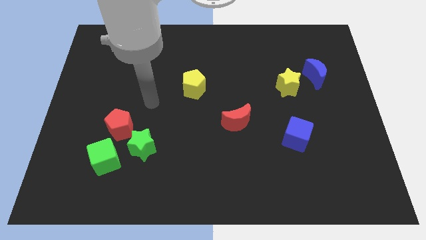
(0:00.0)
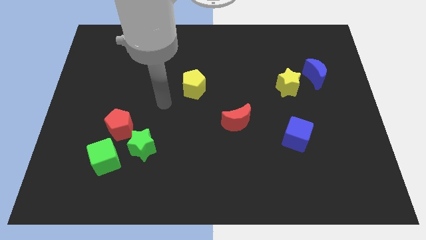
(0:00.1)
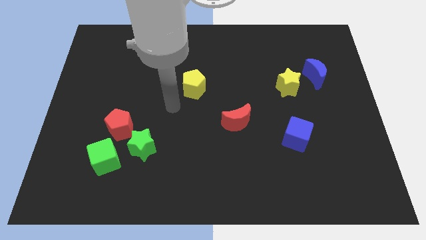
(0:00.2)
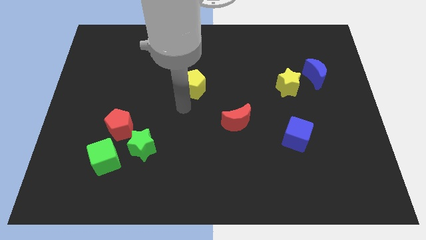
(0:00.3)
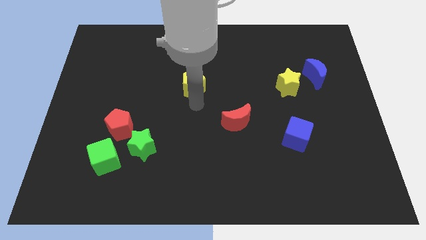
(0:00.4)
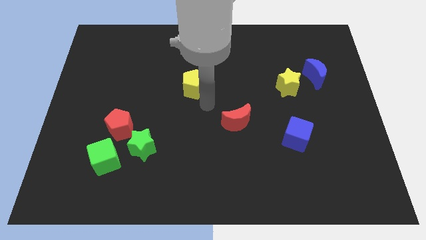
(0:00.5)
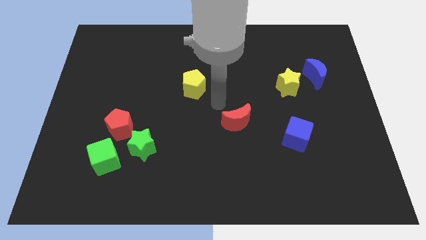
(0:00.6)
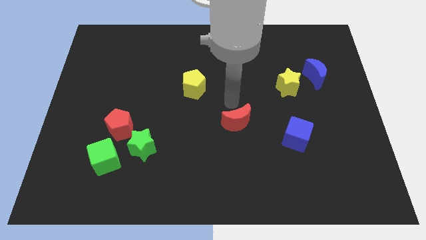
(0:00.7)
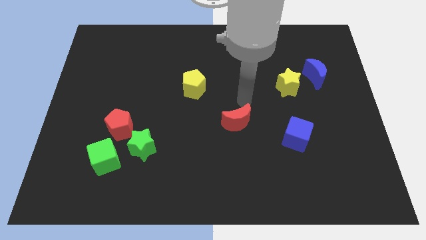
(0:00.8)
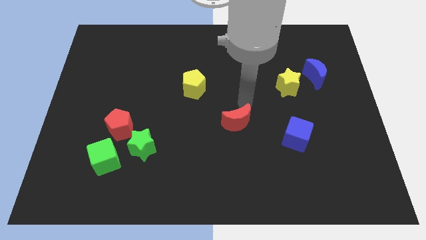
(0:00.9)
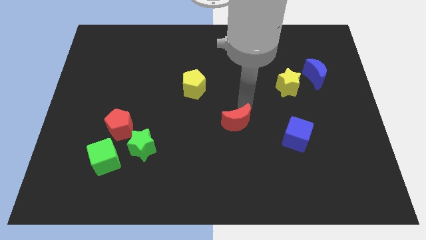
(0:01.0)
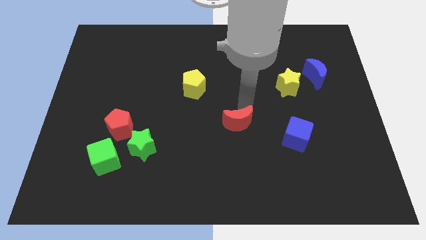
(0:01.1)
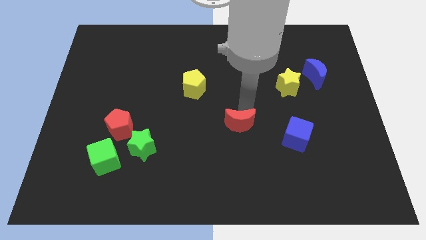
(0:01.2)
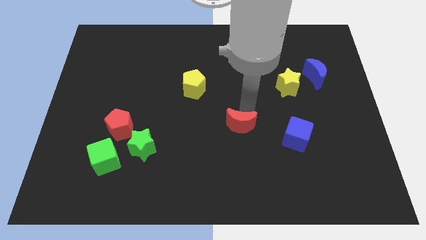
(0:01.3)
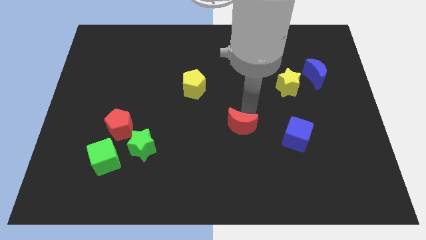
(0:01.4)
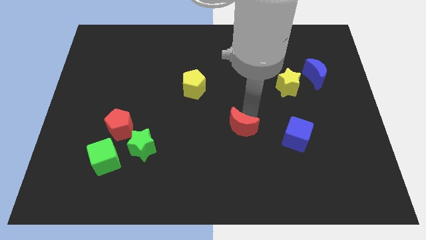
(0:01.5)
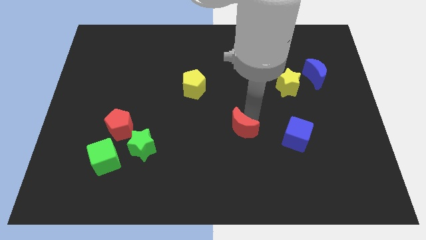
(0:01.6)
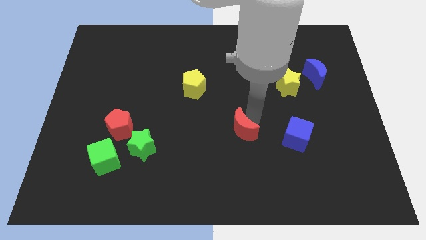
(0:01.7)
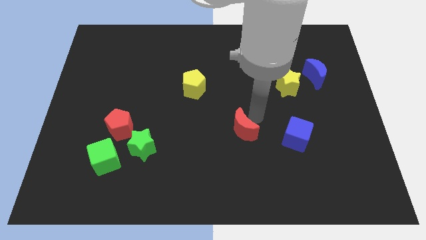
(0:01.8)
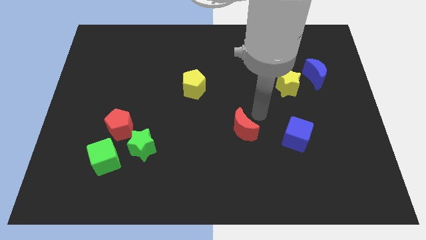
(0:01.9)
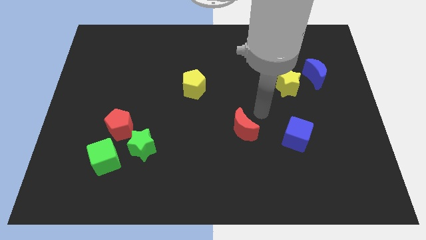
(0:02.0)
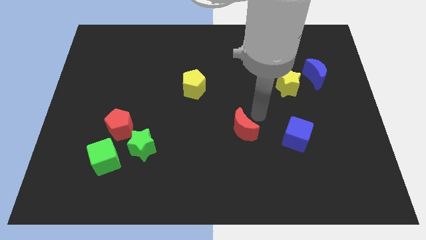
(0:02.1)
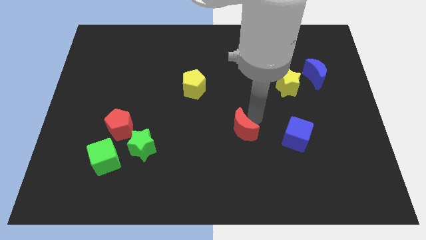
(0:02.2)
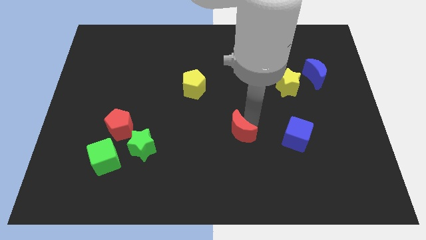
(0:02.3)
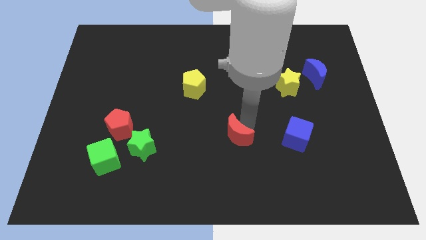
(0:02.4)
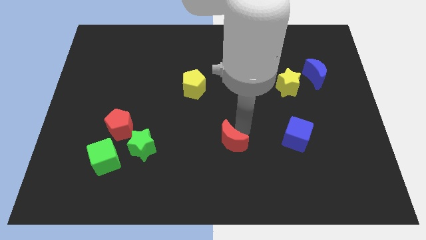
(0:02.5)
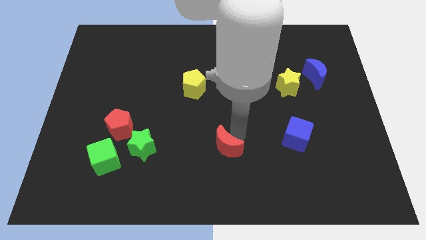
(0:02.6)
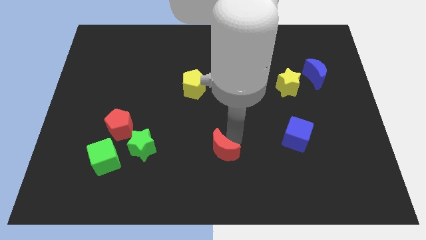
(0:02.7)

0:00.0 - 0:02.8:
move the red moon down and then to the left slightly

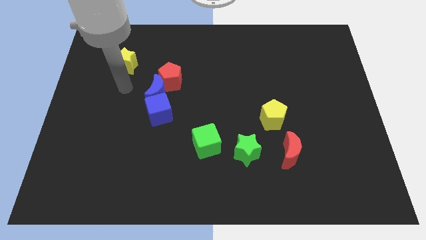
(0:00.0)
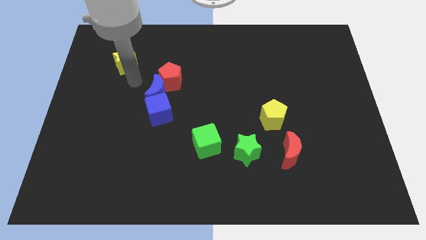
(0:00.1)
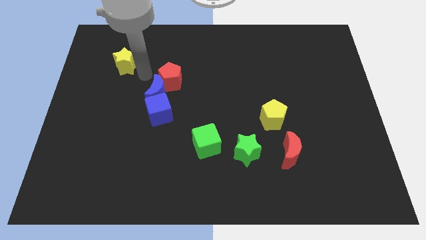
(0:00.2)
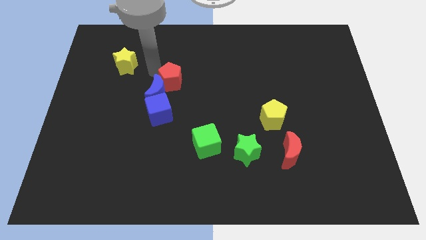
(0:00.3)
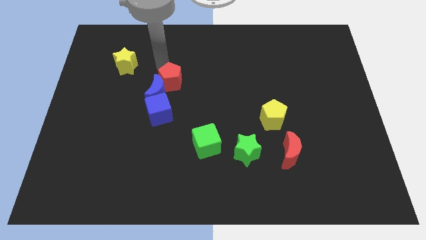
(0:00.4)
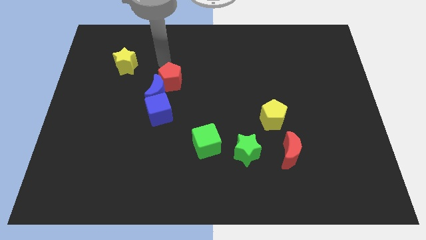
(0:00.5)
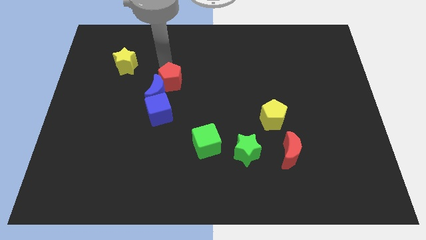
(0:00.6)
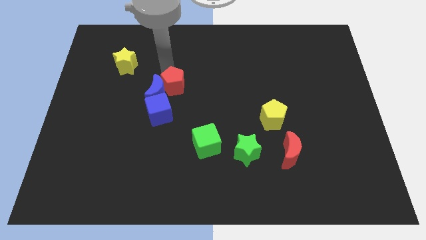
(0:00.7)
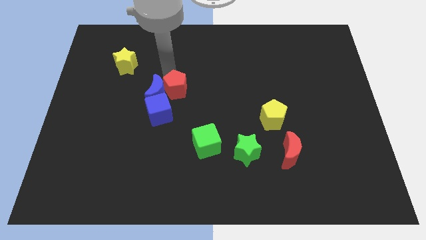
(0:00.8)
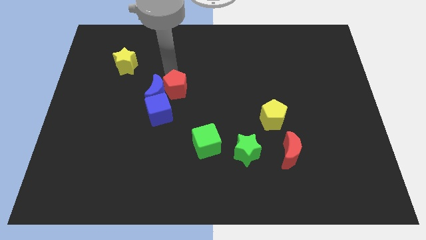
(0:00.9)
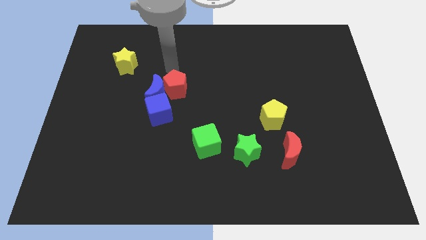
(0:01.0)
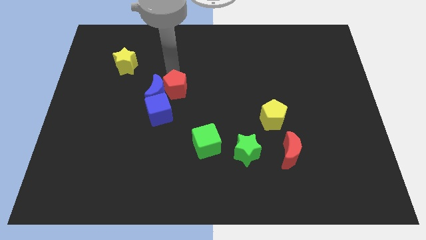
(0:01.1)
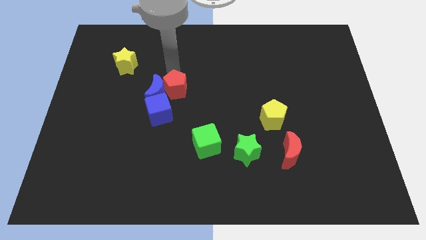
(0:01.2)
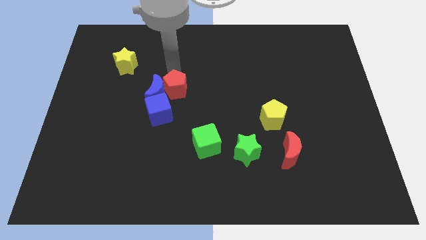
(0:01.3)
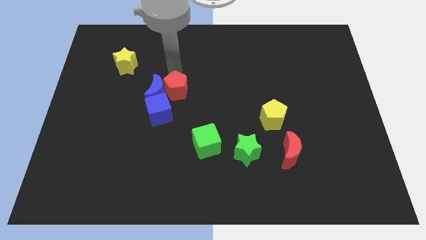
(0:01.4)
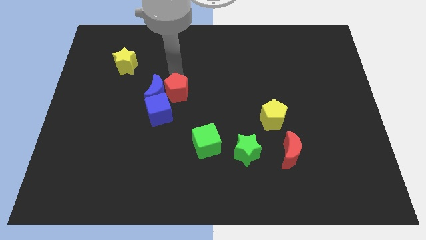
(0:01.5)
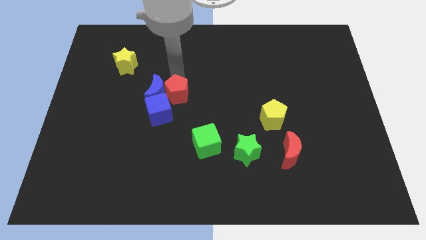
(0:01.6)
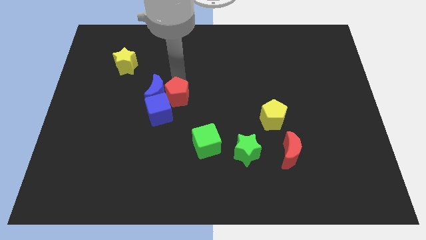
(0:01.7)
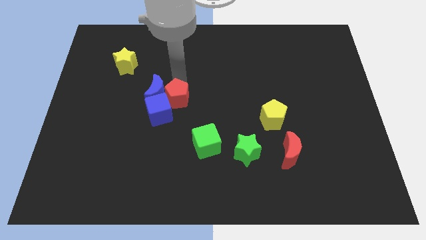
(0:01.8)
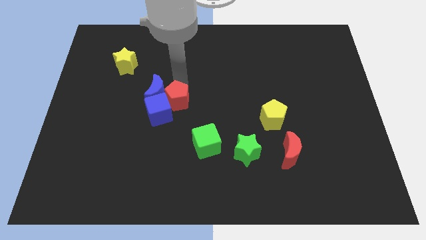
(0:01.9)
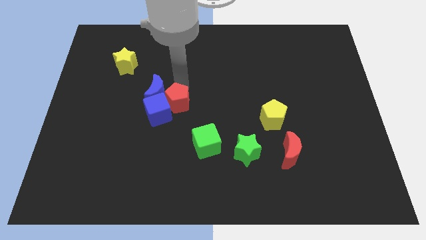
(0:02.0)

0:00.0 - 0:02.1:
slightly move the red pentagon down

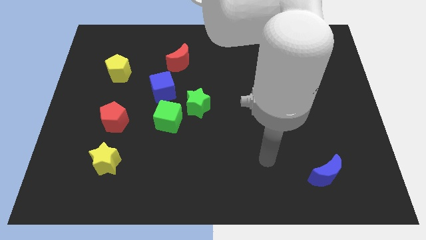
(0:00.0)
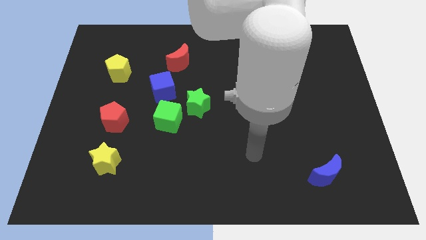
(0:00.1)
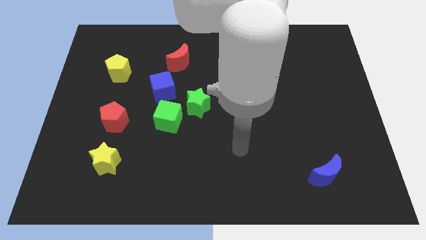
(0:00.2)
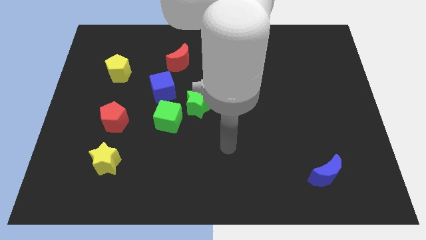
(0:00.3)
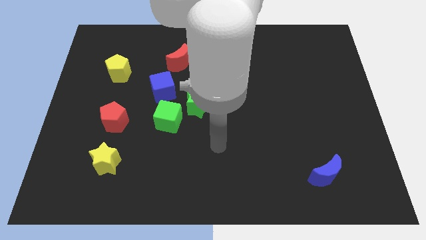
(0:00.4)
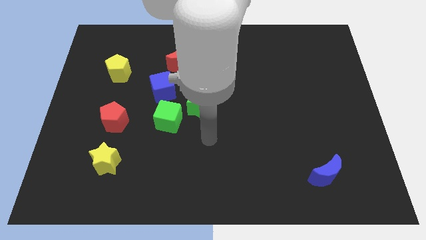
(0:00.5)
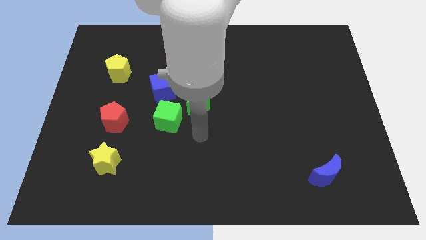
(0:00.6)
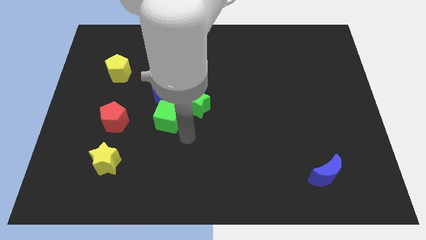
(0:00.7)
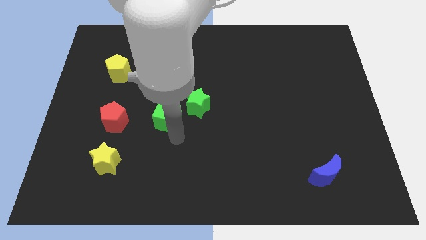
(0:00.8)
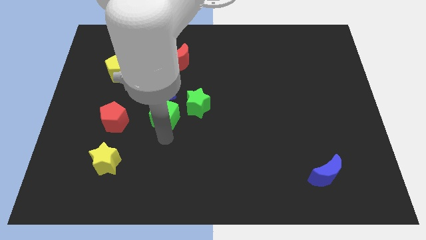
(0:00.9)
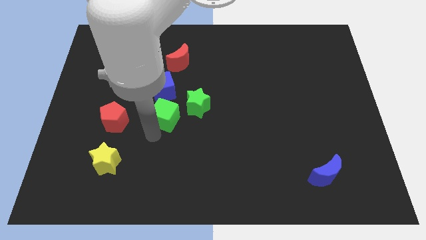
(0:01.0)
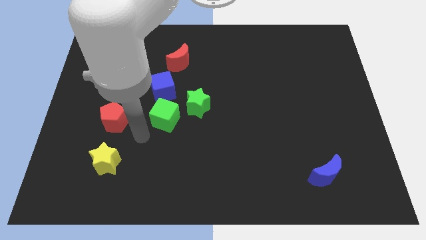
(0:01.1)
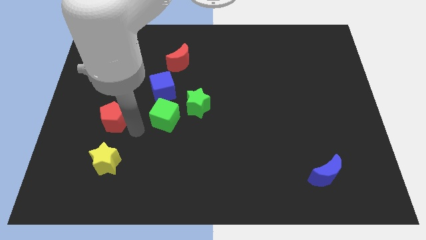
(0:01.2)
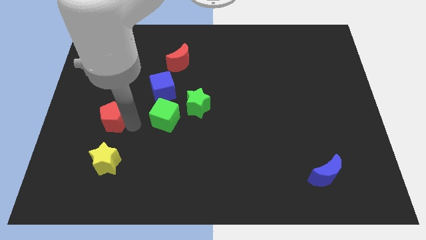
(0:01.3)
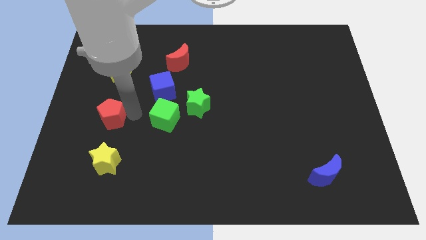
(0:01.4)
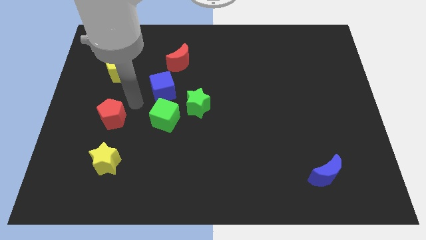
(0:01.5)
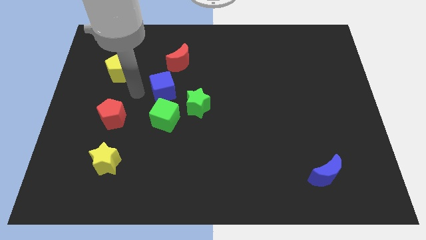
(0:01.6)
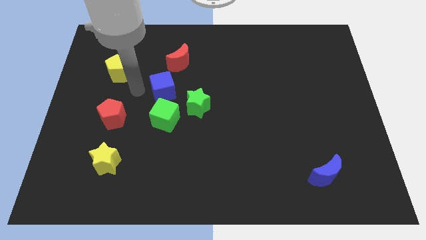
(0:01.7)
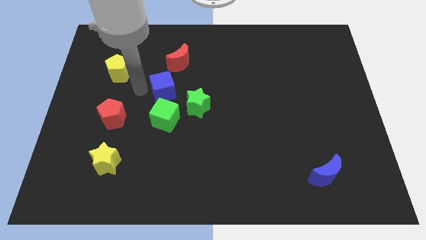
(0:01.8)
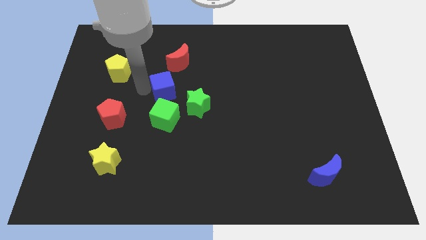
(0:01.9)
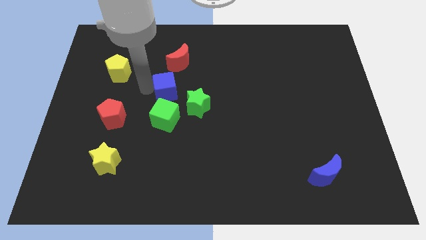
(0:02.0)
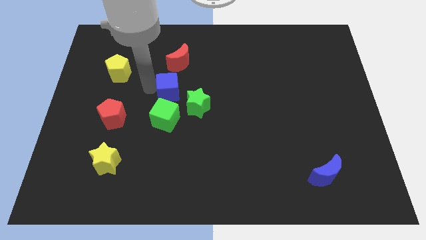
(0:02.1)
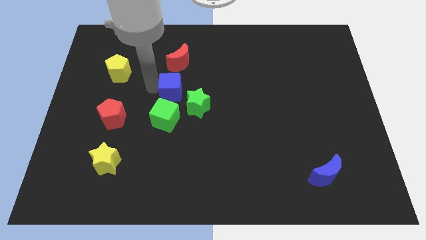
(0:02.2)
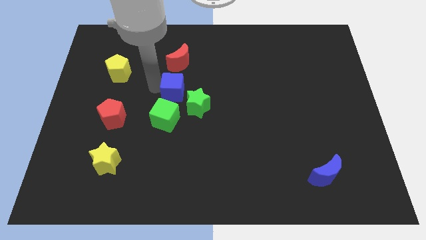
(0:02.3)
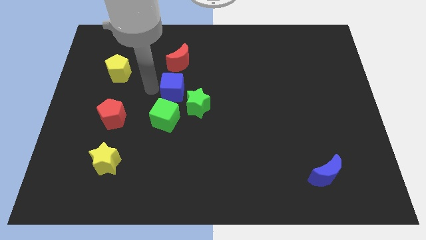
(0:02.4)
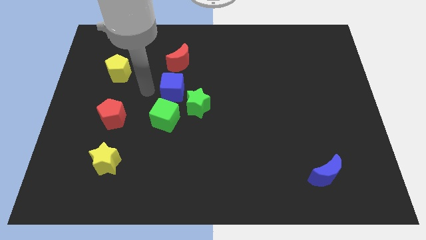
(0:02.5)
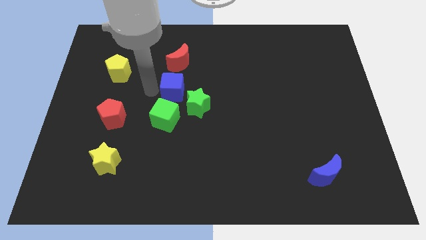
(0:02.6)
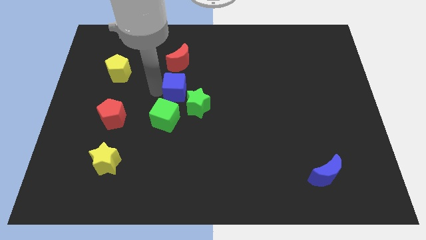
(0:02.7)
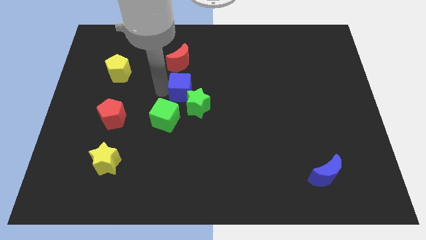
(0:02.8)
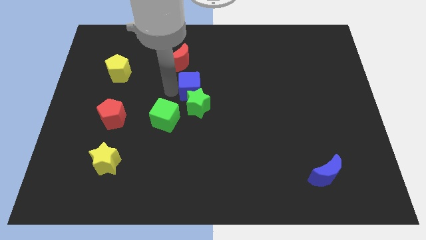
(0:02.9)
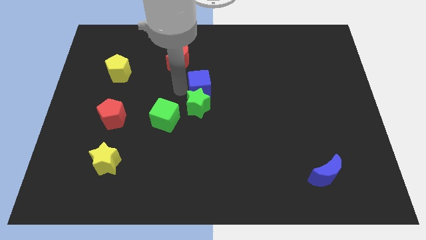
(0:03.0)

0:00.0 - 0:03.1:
move the blue cube slightly right
